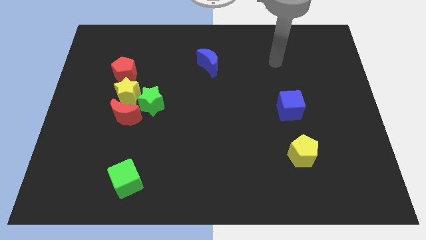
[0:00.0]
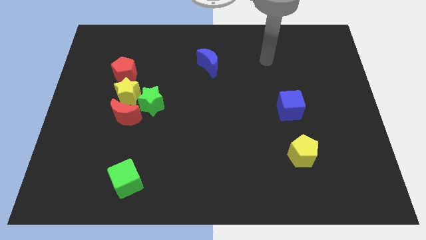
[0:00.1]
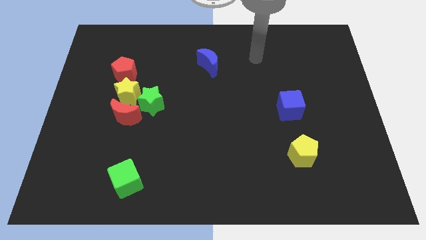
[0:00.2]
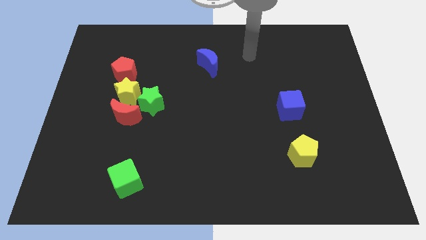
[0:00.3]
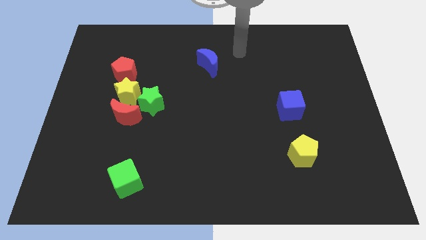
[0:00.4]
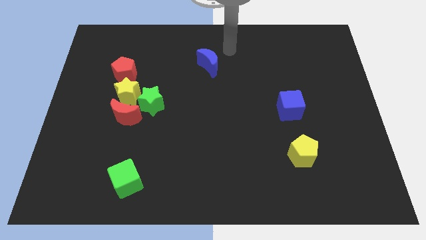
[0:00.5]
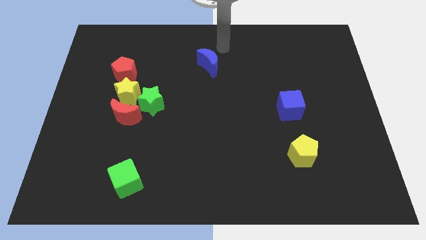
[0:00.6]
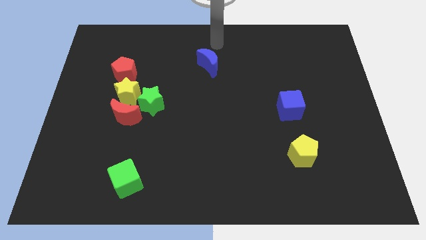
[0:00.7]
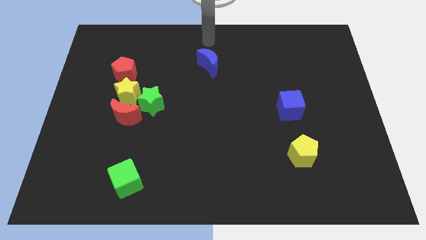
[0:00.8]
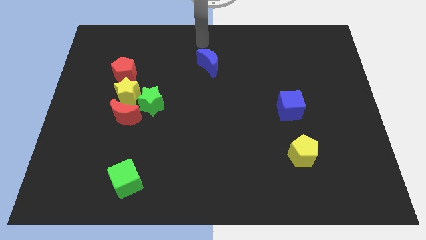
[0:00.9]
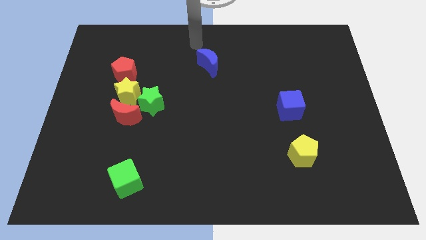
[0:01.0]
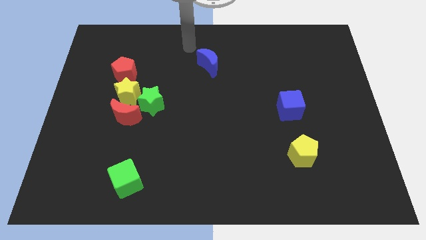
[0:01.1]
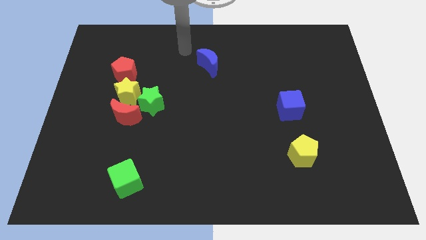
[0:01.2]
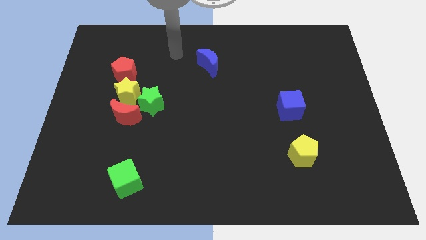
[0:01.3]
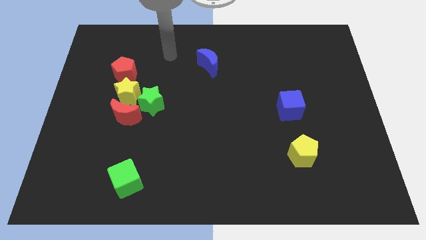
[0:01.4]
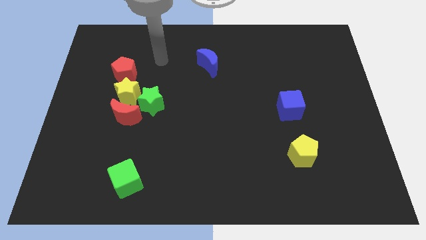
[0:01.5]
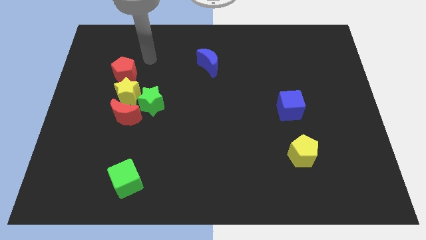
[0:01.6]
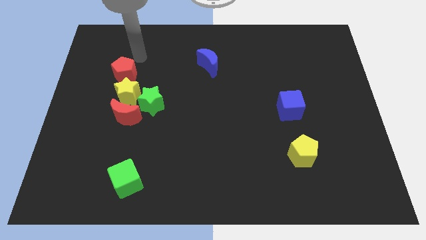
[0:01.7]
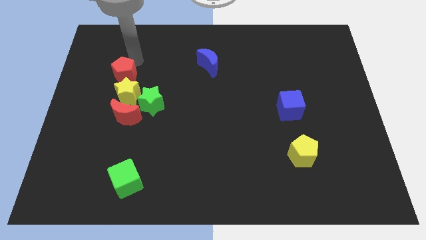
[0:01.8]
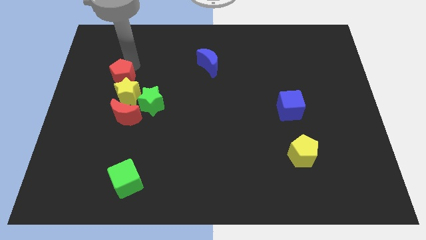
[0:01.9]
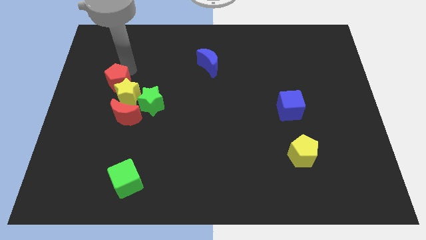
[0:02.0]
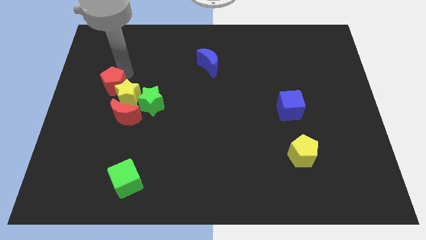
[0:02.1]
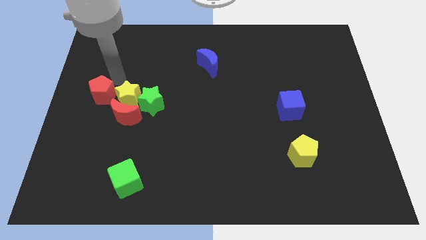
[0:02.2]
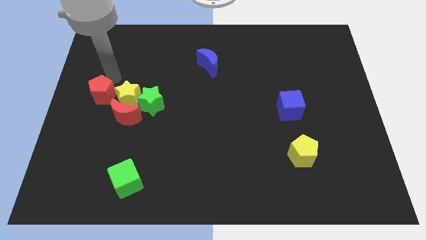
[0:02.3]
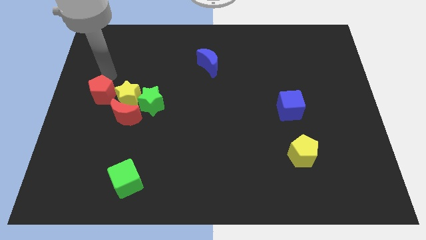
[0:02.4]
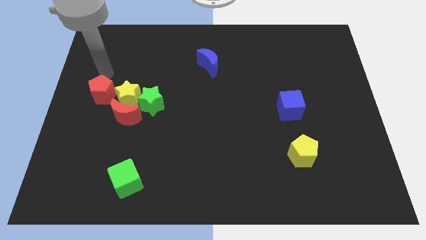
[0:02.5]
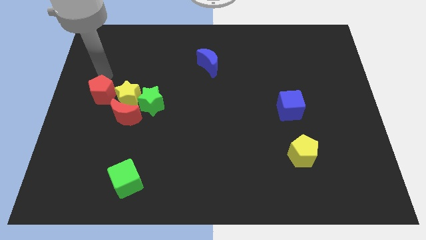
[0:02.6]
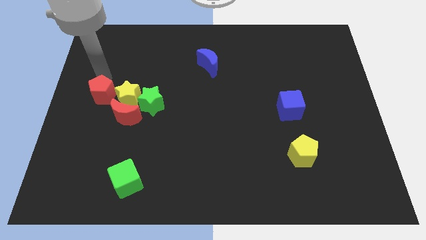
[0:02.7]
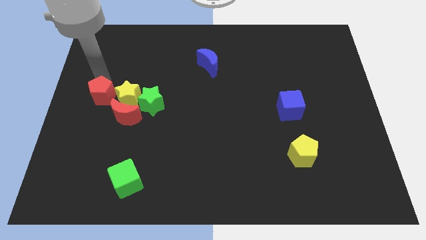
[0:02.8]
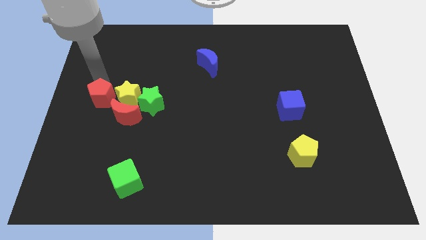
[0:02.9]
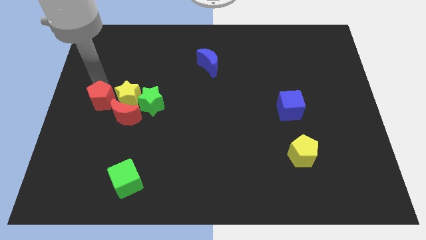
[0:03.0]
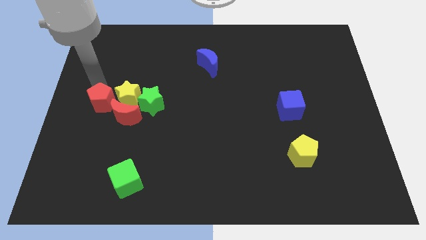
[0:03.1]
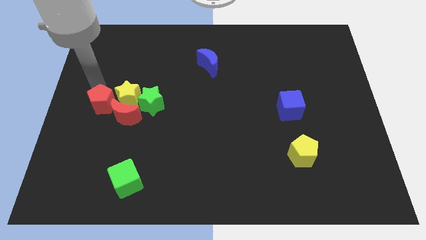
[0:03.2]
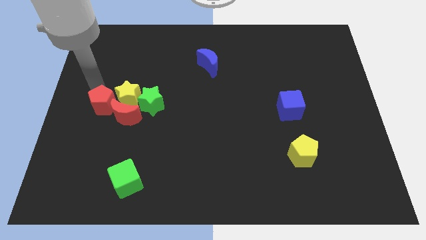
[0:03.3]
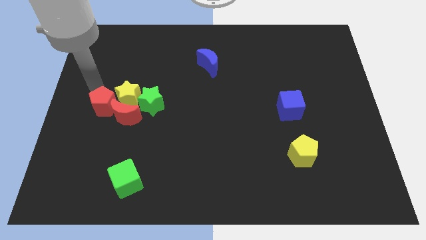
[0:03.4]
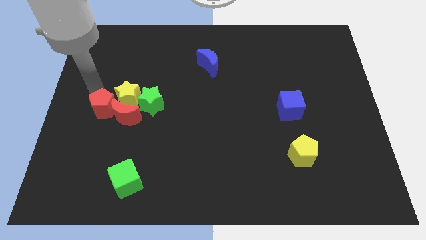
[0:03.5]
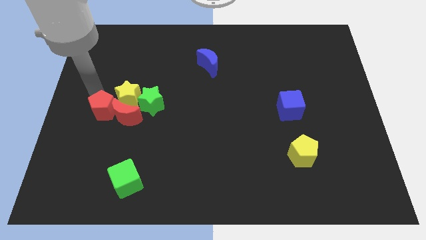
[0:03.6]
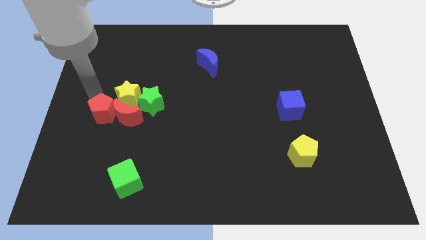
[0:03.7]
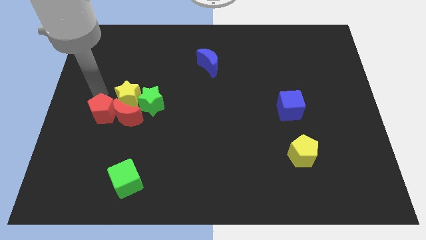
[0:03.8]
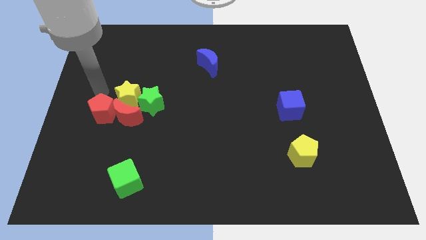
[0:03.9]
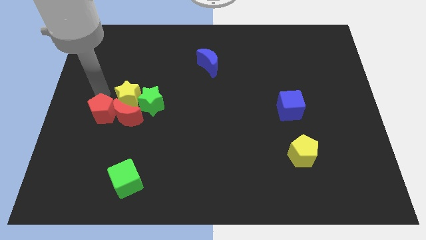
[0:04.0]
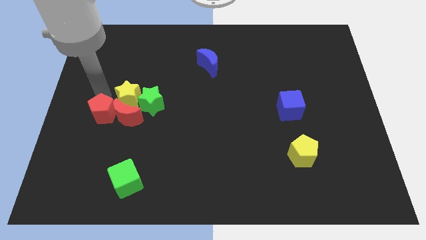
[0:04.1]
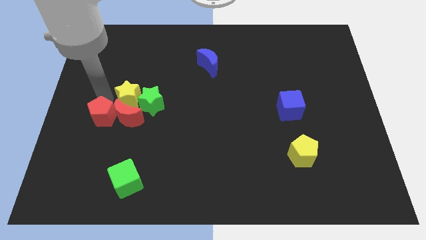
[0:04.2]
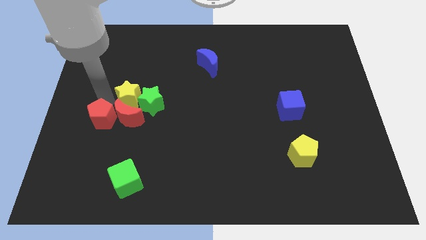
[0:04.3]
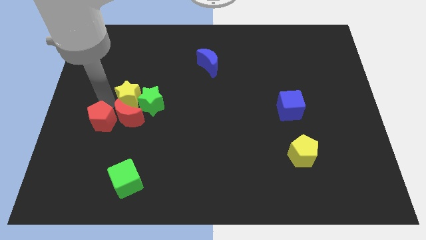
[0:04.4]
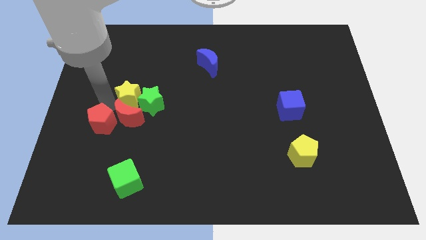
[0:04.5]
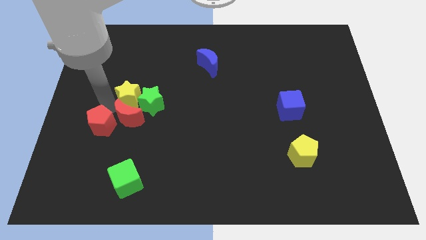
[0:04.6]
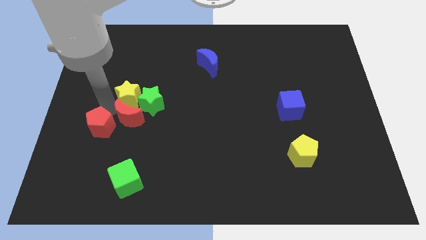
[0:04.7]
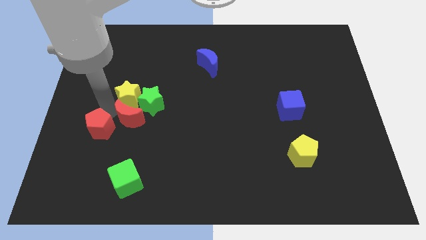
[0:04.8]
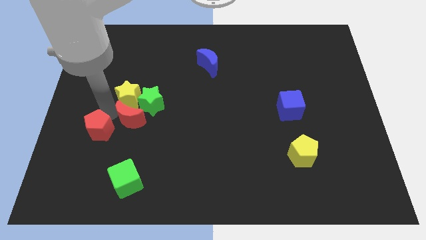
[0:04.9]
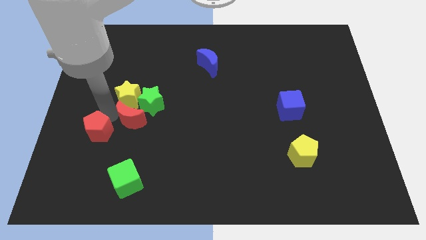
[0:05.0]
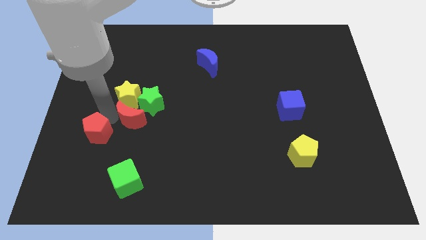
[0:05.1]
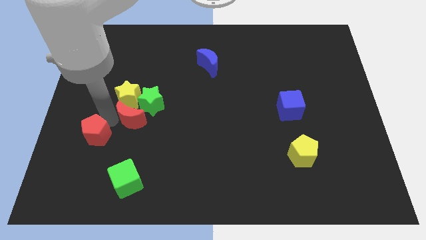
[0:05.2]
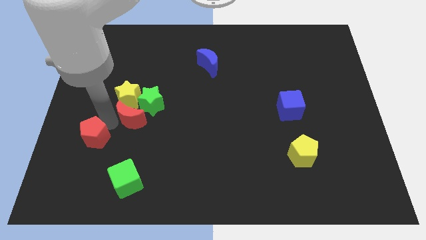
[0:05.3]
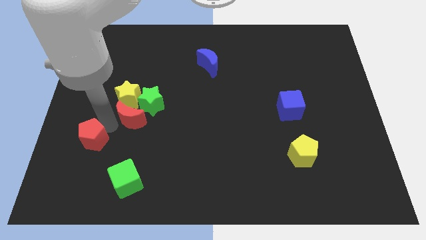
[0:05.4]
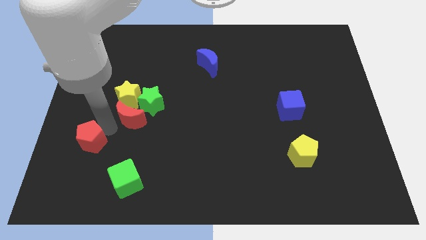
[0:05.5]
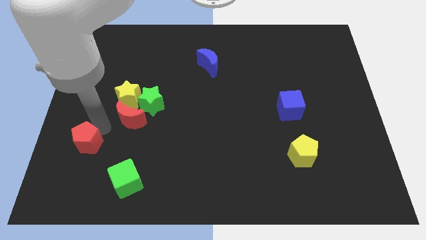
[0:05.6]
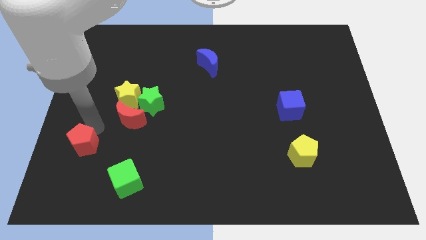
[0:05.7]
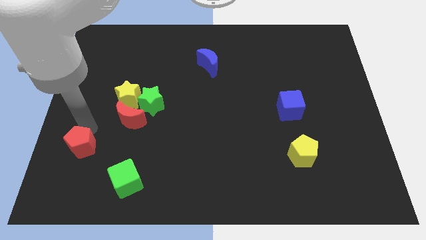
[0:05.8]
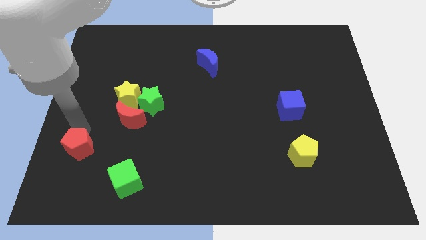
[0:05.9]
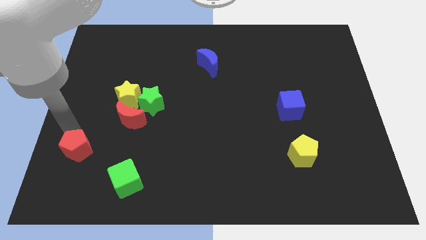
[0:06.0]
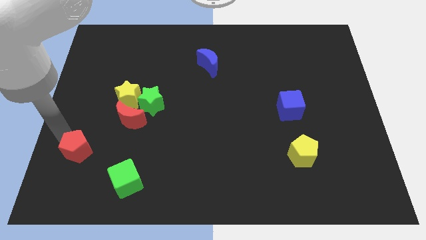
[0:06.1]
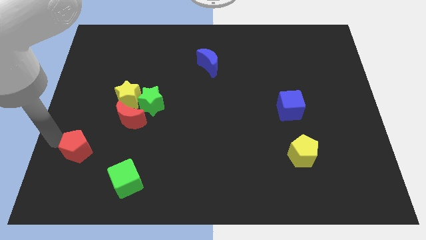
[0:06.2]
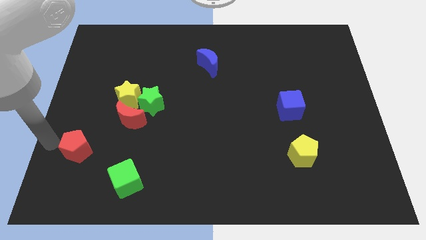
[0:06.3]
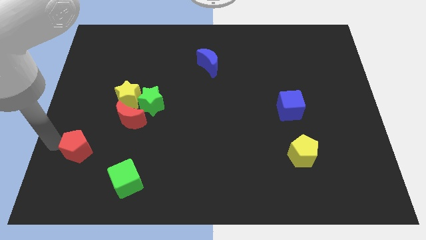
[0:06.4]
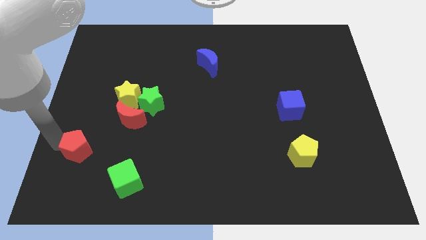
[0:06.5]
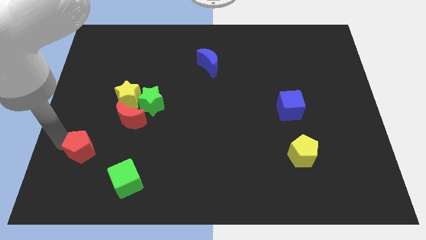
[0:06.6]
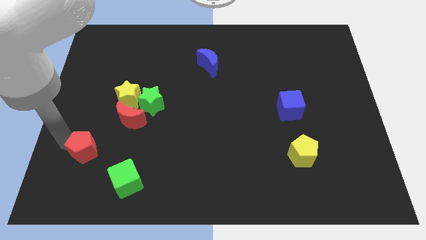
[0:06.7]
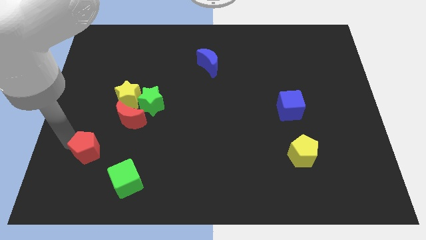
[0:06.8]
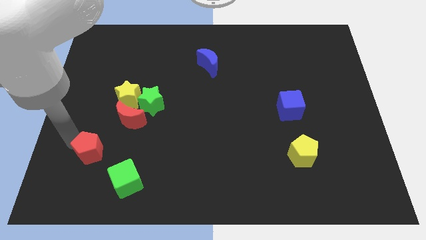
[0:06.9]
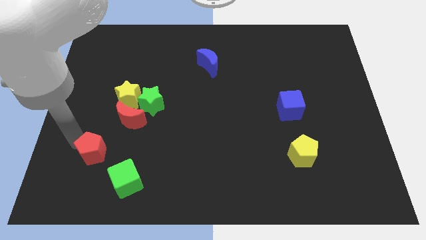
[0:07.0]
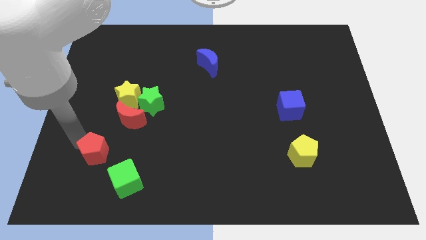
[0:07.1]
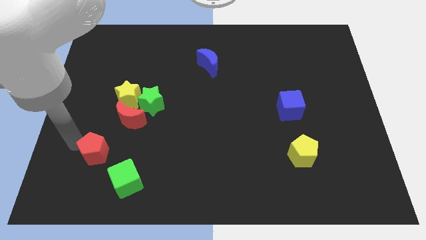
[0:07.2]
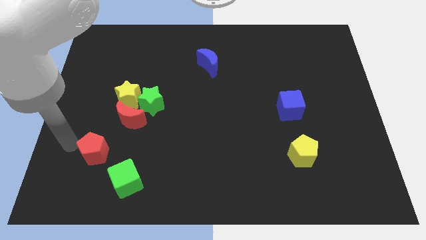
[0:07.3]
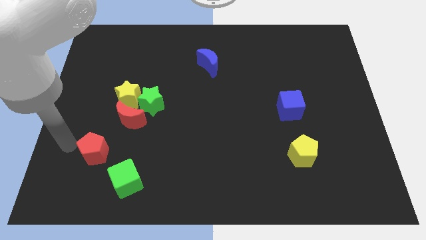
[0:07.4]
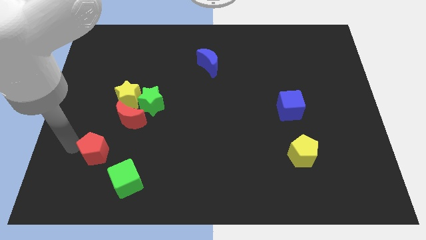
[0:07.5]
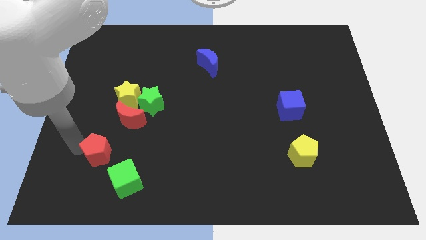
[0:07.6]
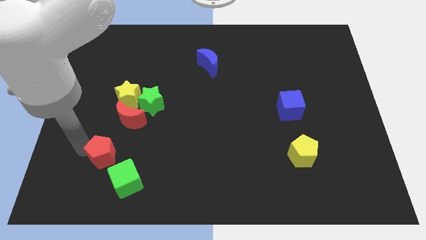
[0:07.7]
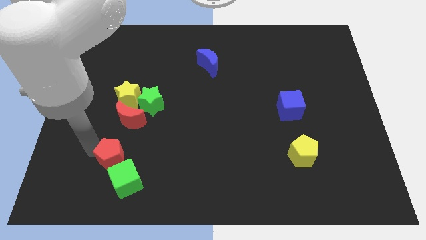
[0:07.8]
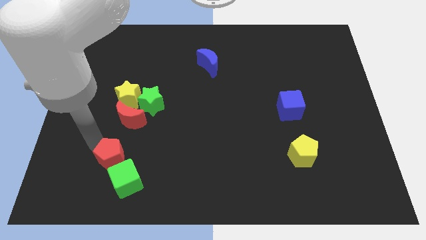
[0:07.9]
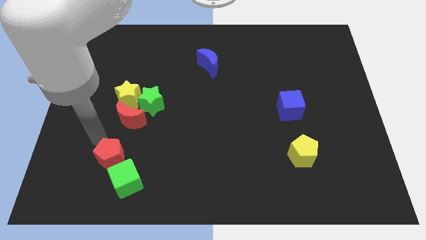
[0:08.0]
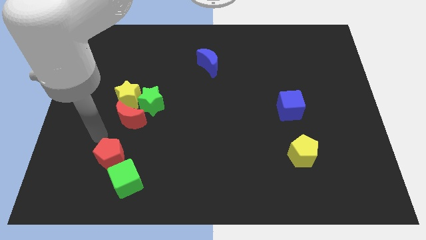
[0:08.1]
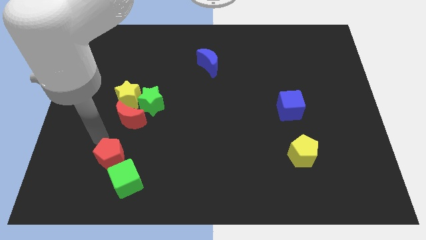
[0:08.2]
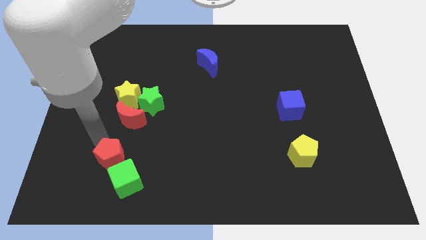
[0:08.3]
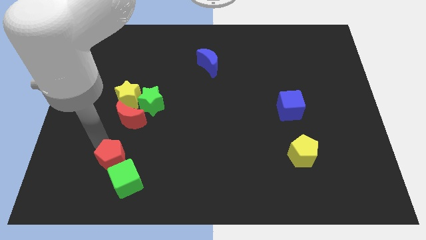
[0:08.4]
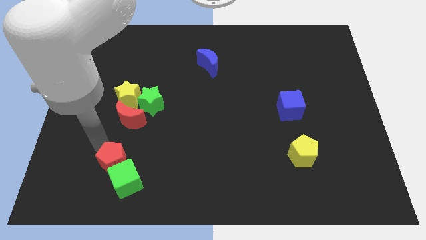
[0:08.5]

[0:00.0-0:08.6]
slide the red pentagon to the green cube
